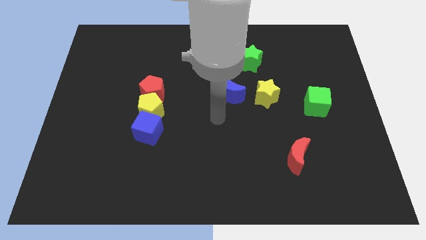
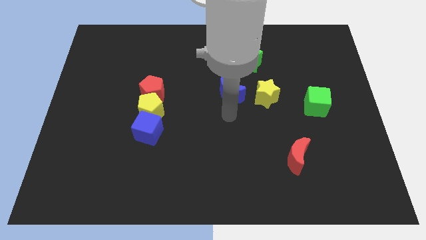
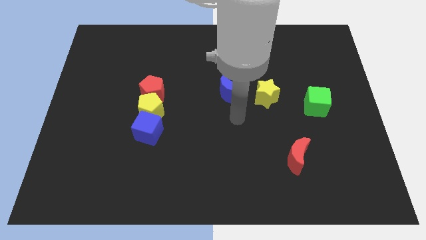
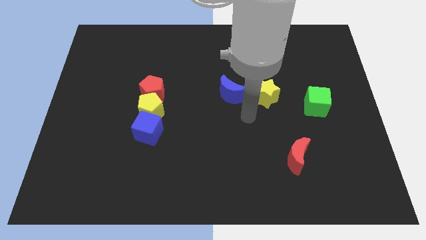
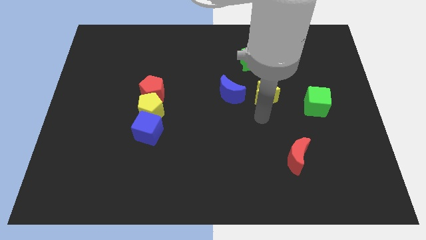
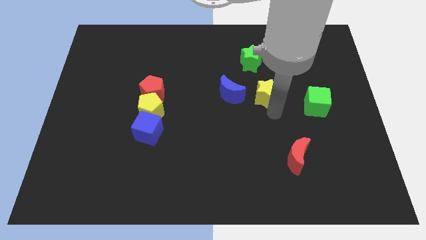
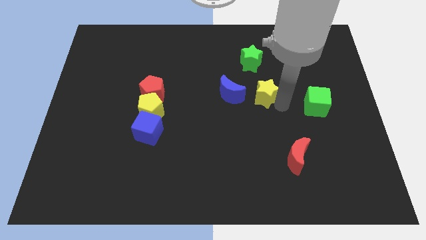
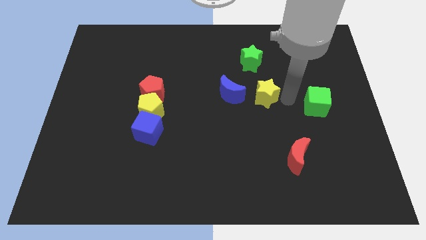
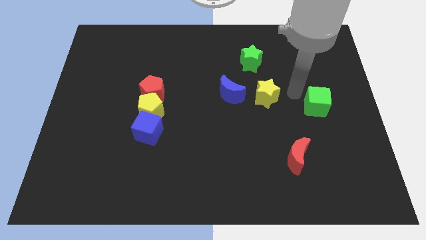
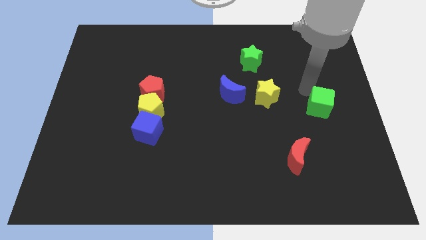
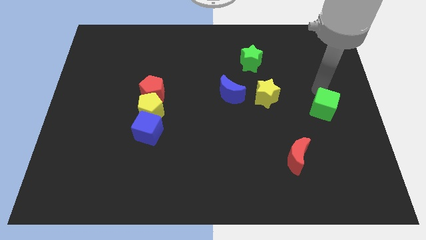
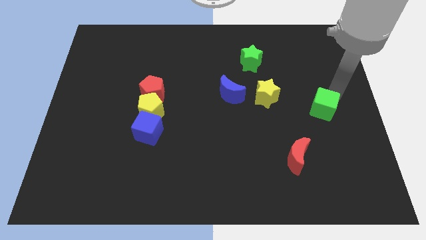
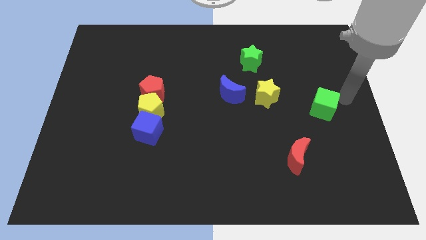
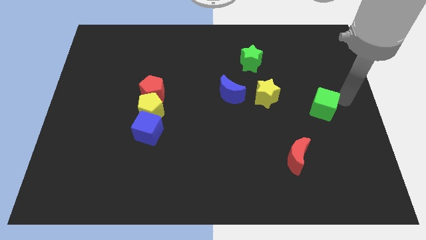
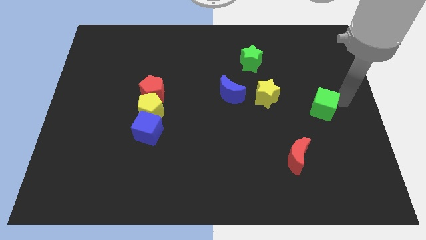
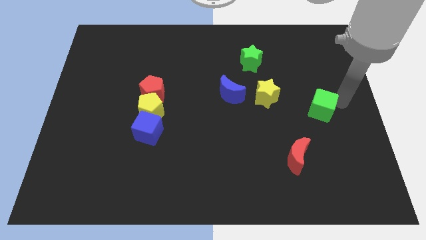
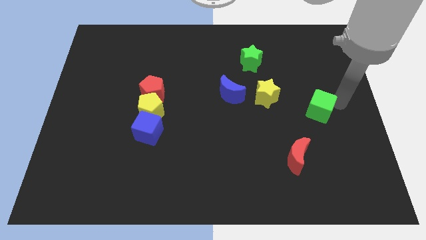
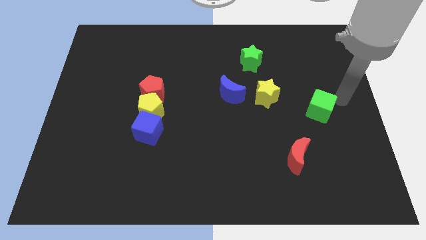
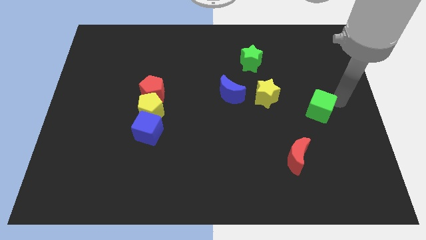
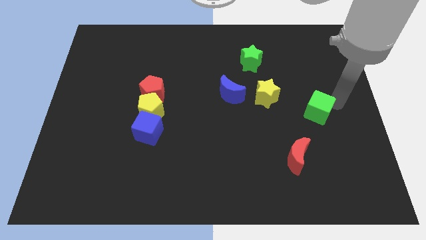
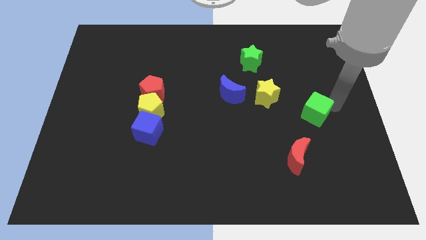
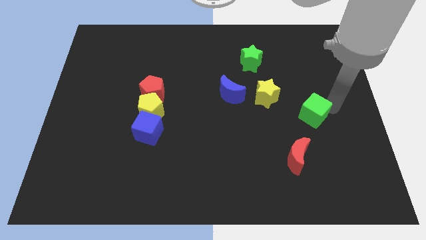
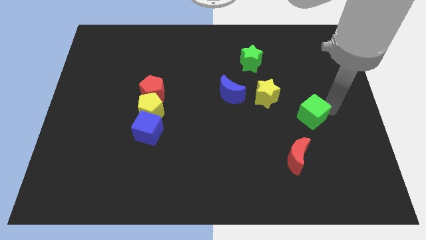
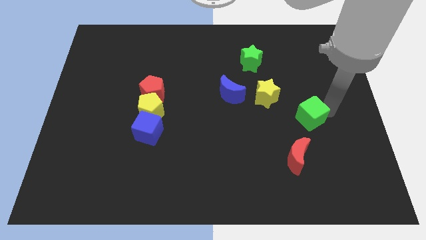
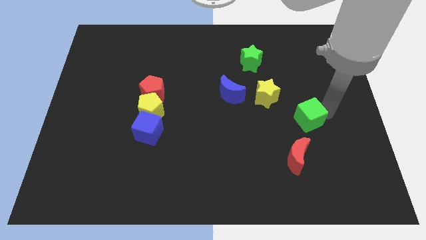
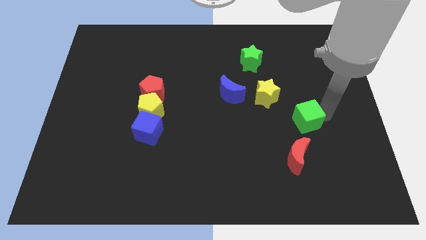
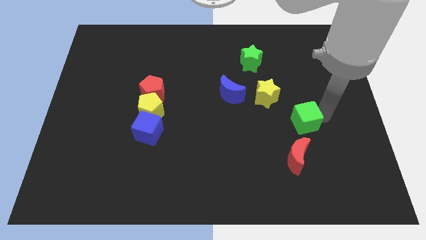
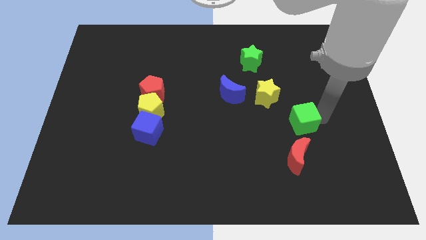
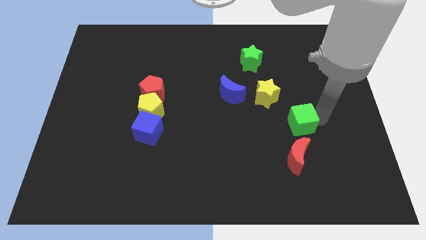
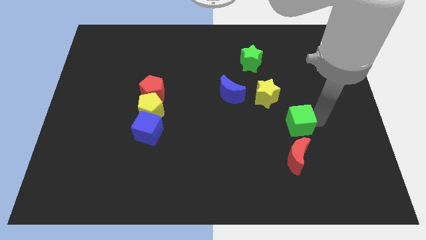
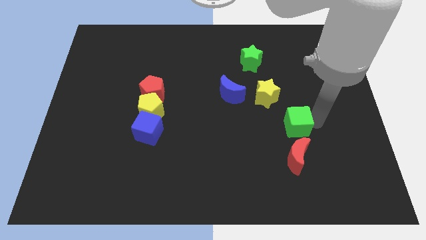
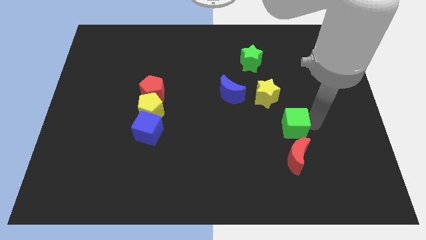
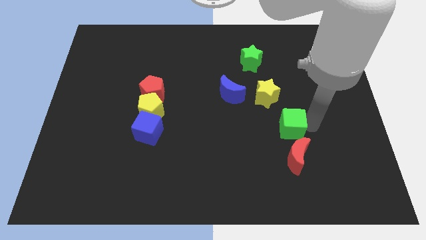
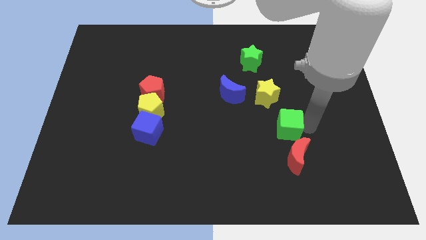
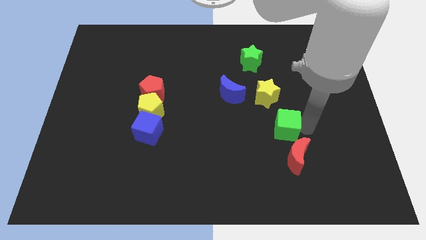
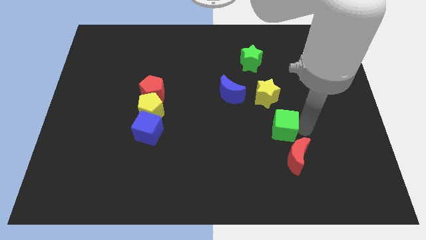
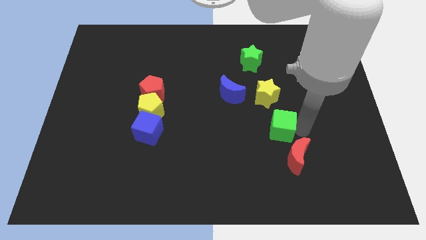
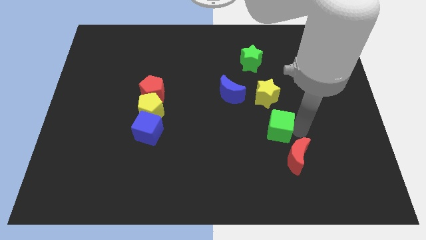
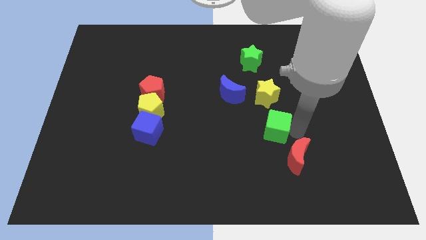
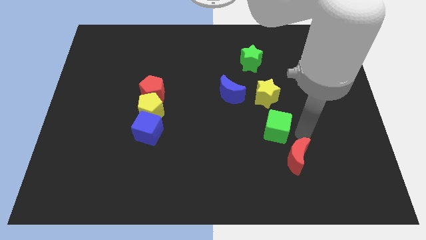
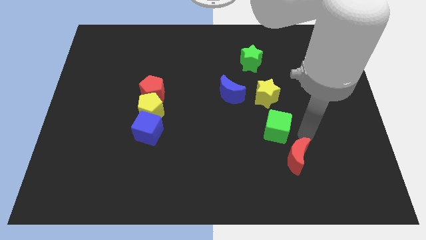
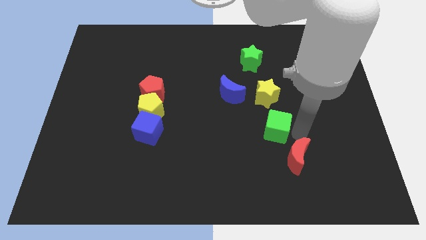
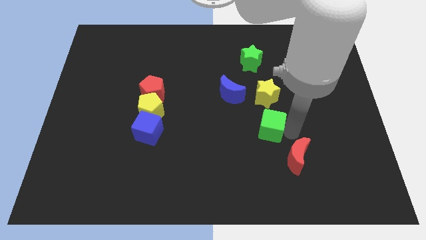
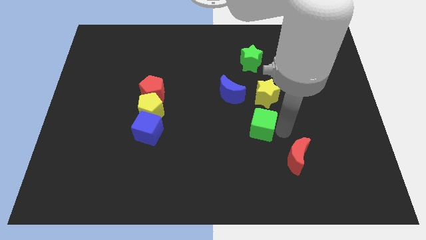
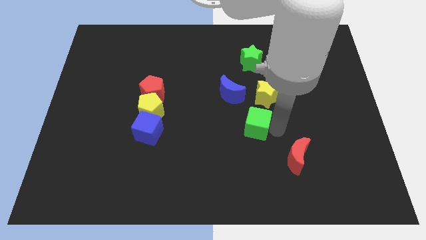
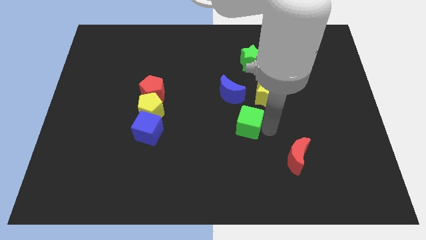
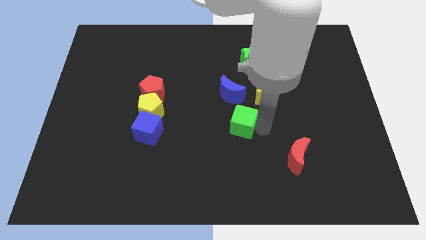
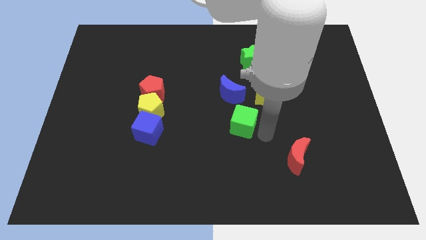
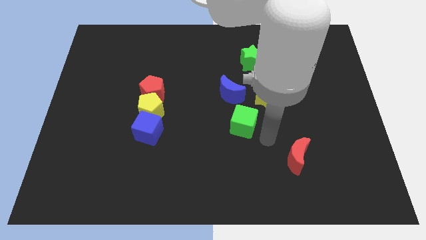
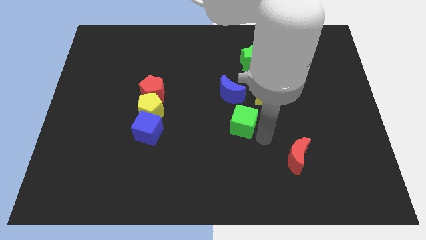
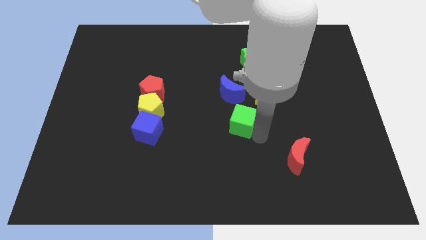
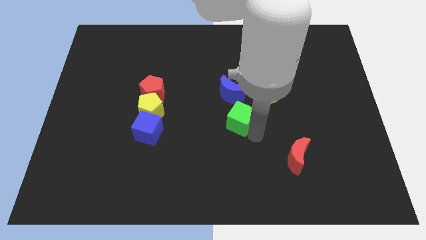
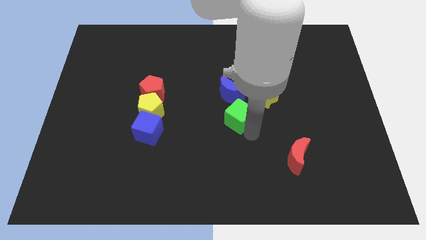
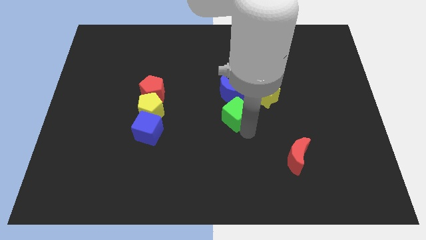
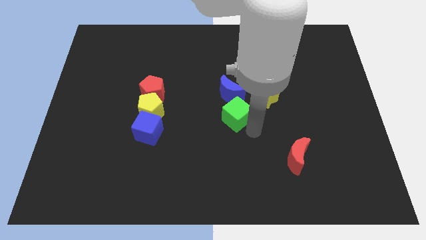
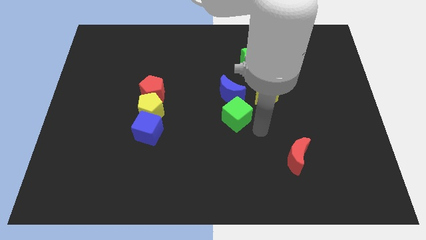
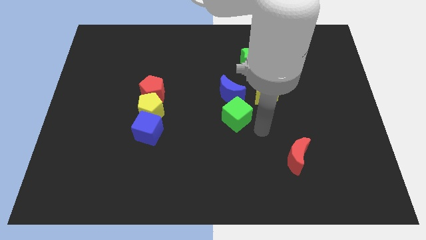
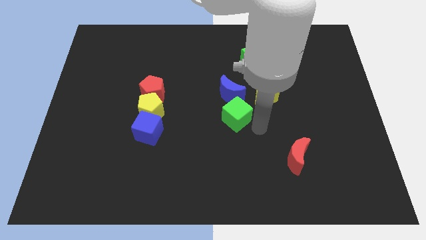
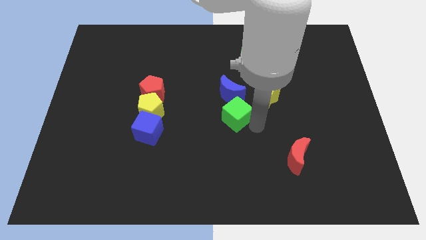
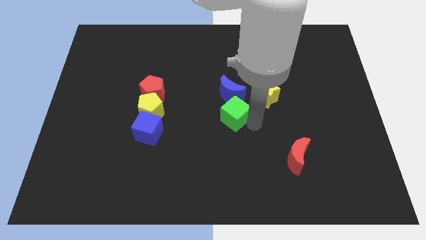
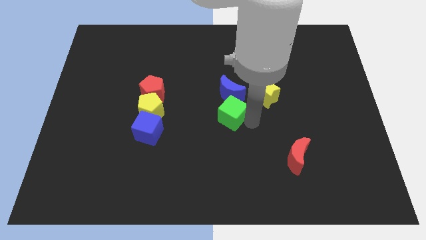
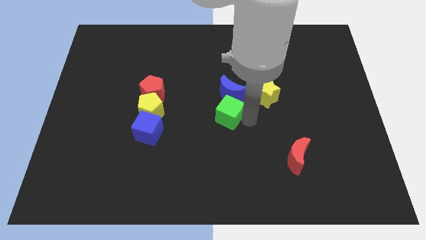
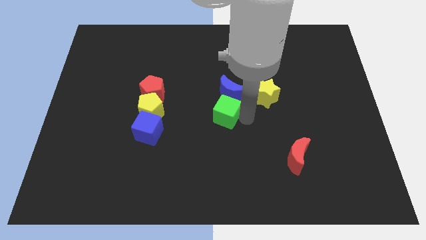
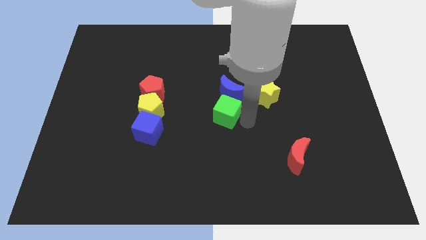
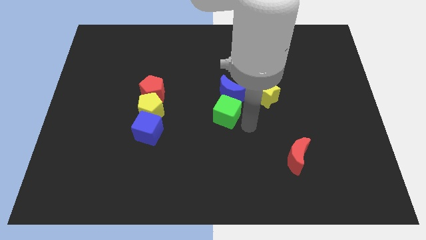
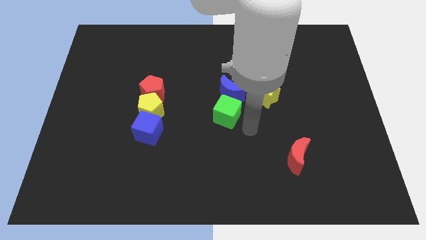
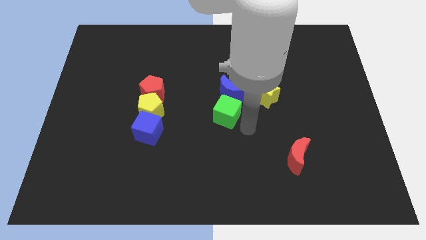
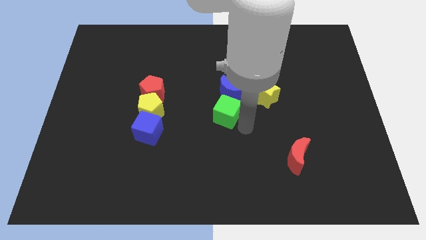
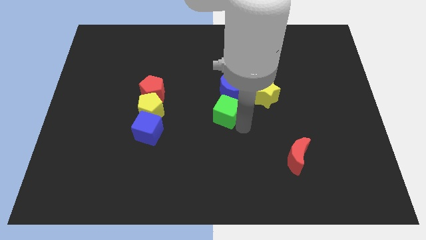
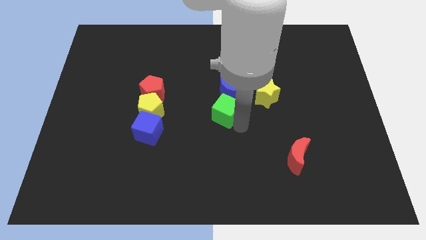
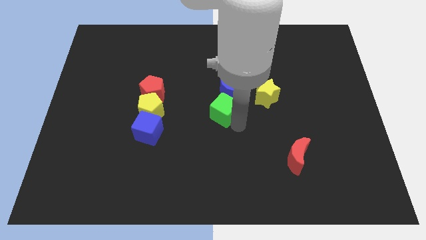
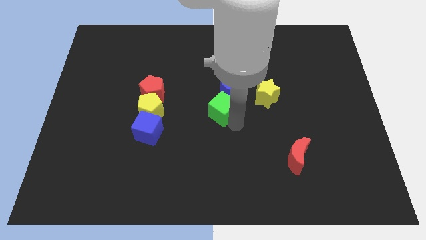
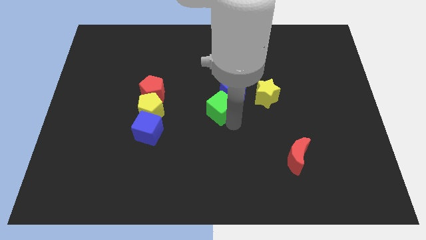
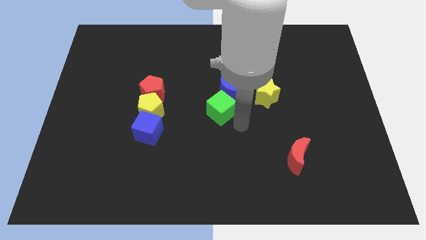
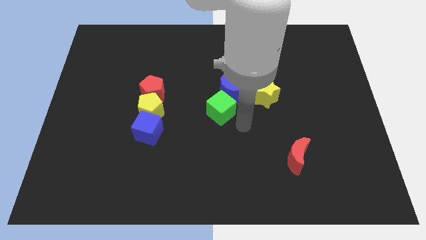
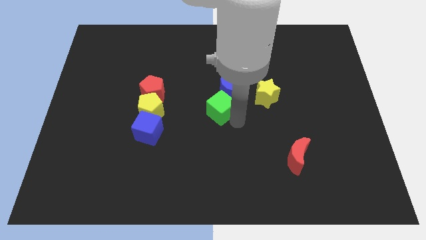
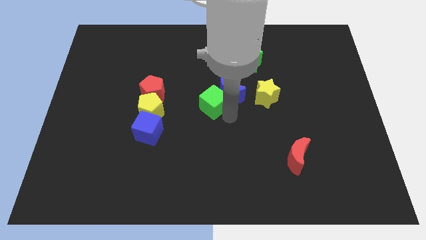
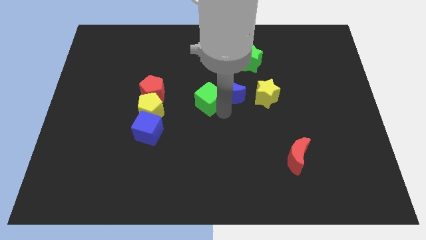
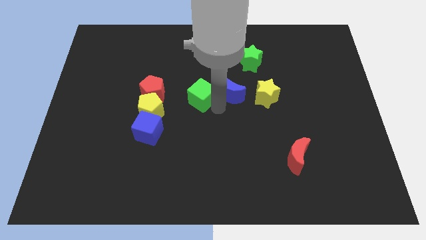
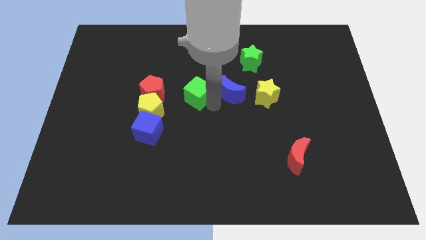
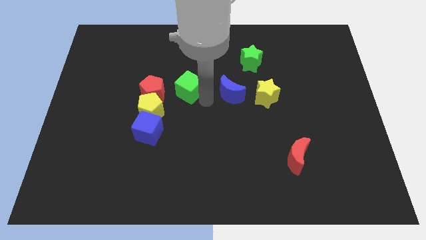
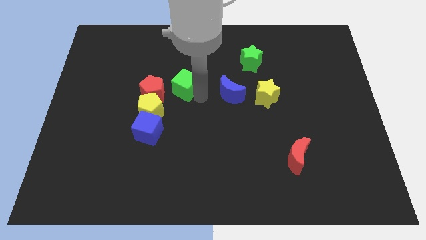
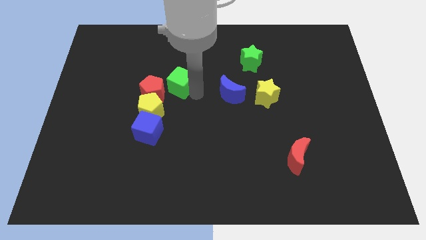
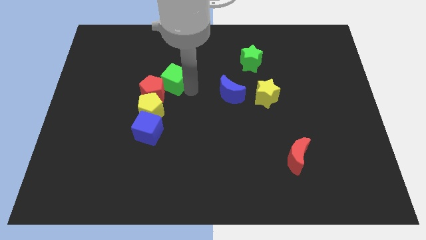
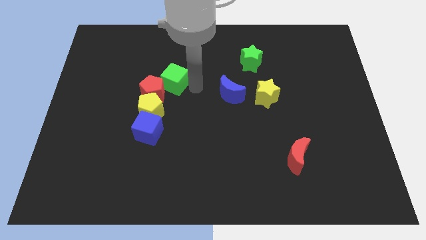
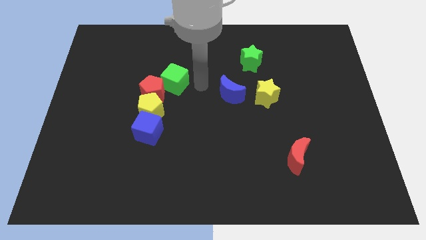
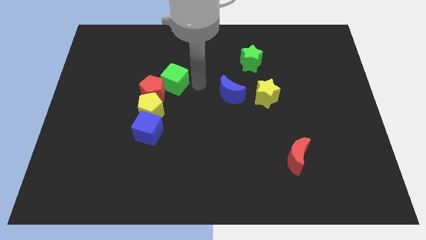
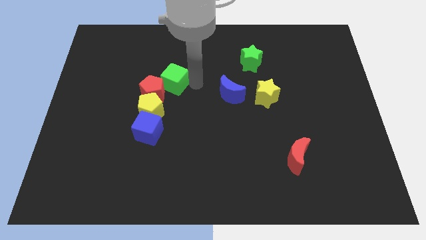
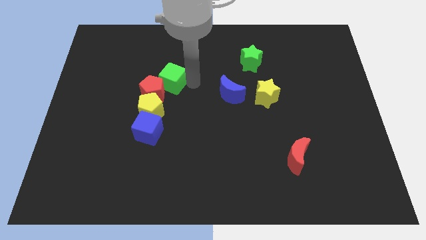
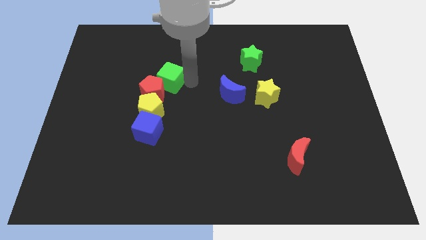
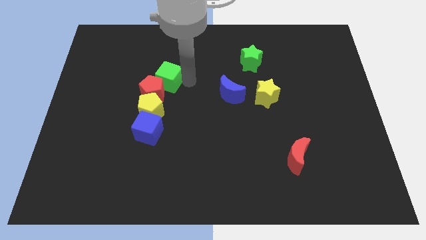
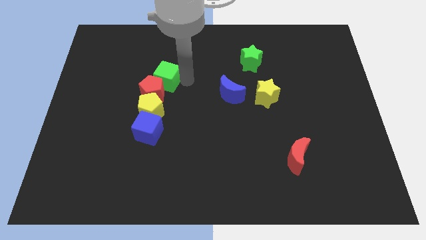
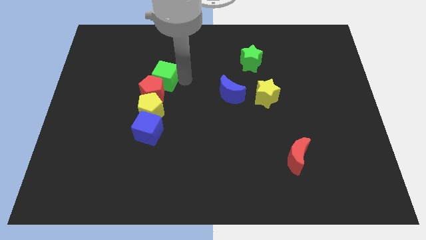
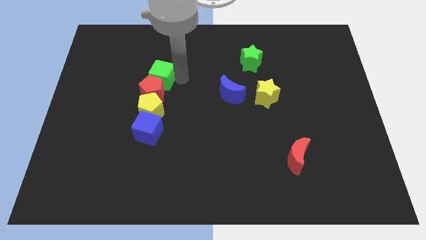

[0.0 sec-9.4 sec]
move the green cube diagonally up and to the left of the red pentagon
